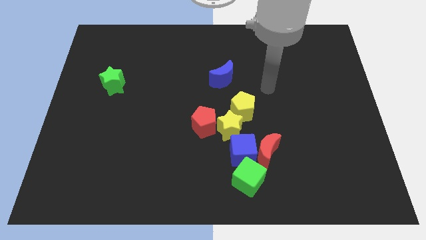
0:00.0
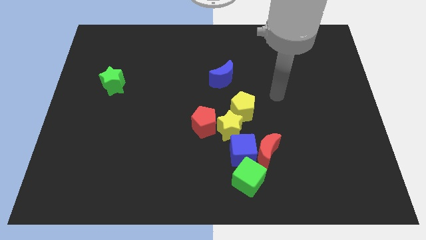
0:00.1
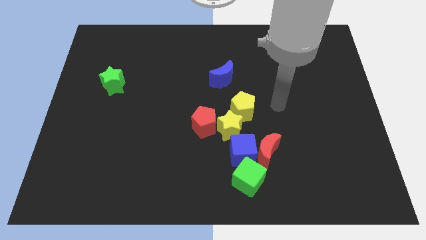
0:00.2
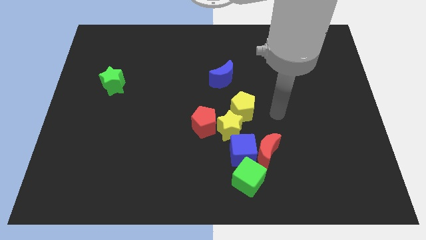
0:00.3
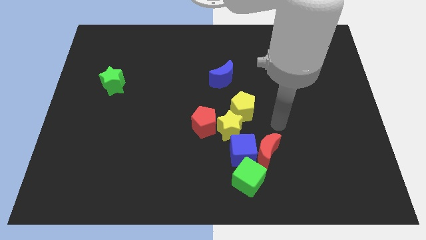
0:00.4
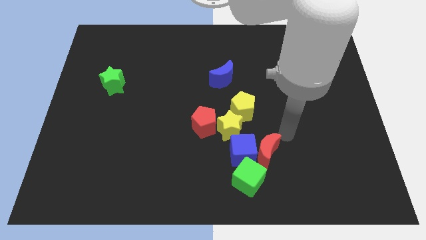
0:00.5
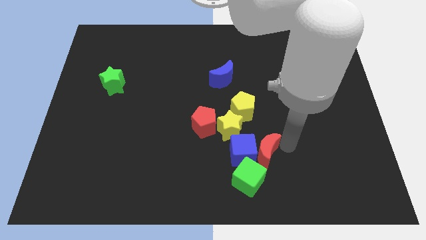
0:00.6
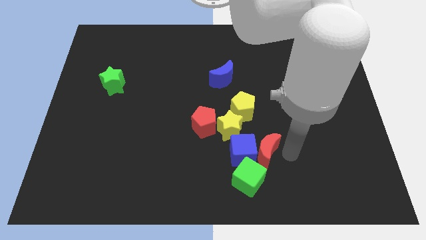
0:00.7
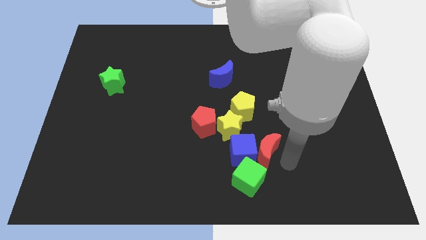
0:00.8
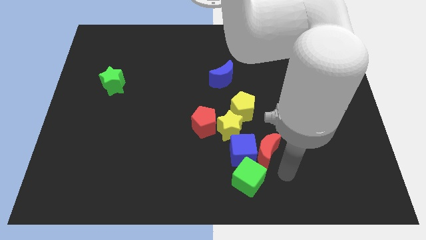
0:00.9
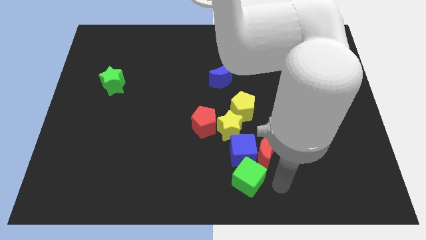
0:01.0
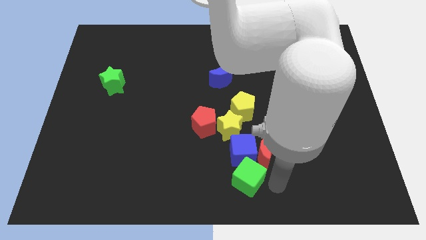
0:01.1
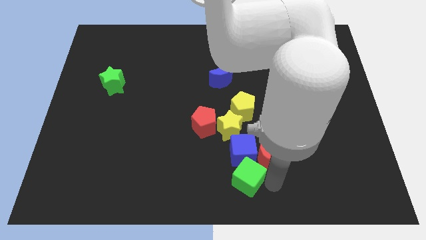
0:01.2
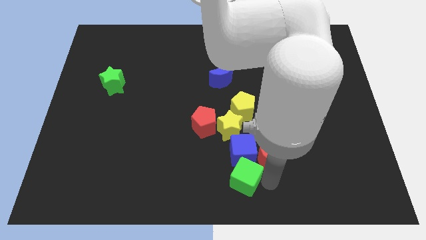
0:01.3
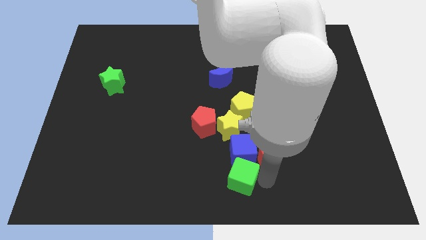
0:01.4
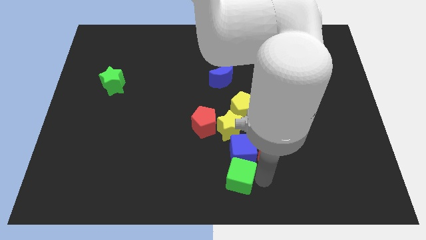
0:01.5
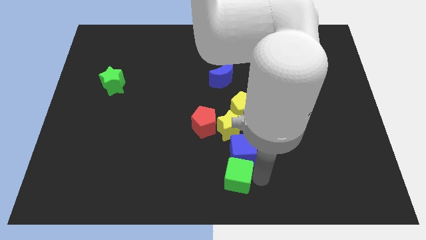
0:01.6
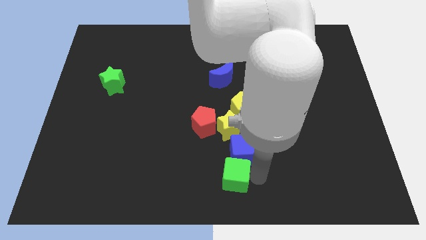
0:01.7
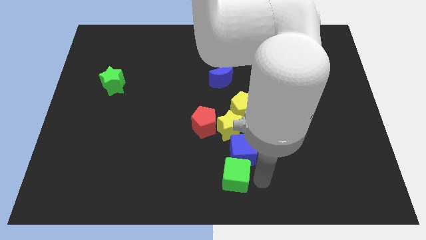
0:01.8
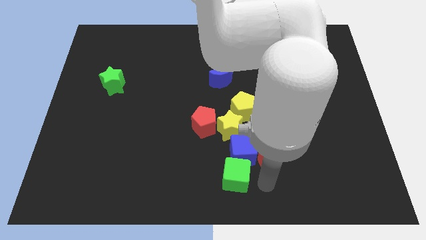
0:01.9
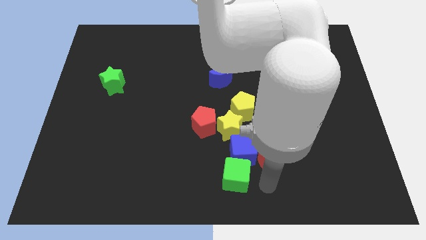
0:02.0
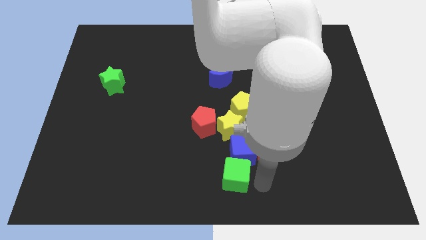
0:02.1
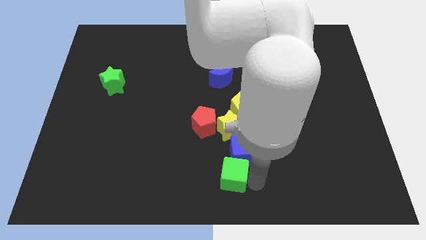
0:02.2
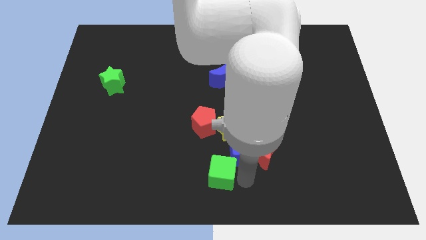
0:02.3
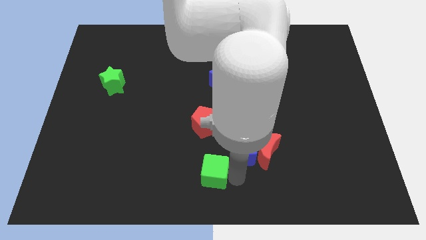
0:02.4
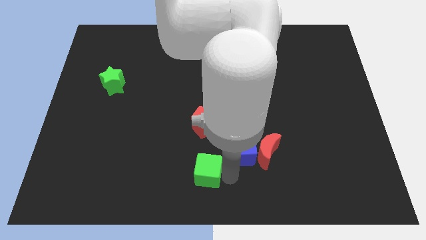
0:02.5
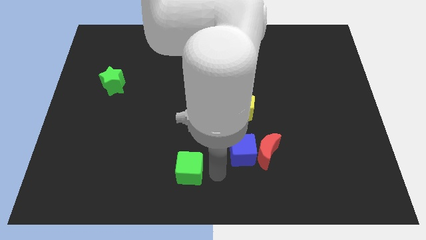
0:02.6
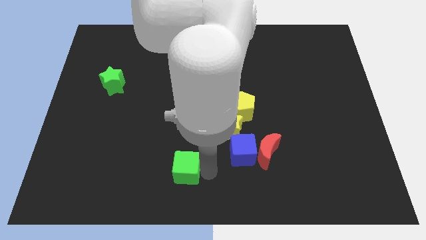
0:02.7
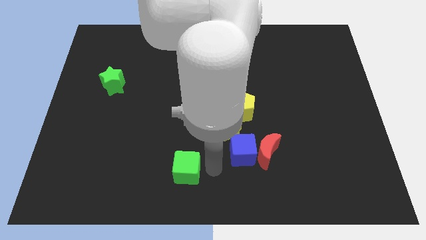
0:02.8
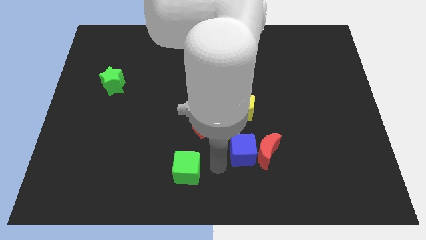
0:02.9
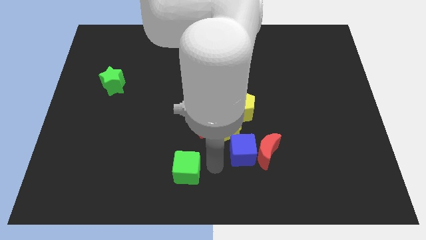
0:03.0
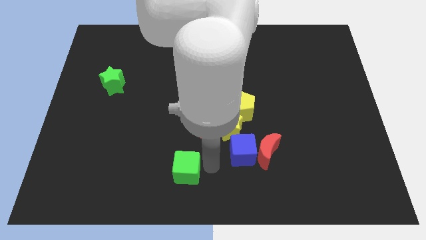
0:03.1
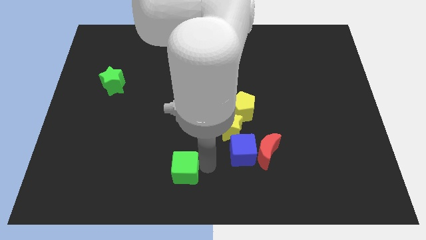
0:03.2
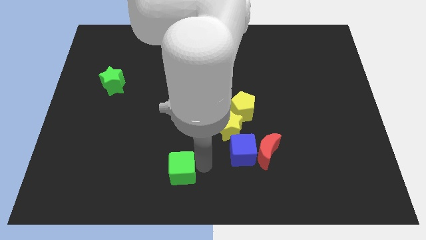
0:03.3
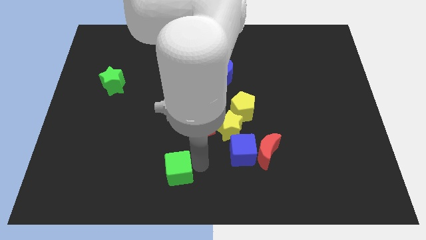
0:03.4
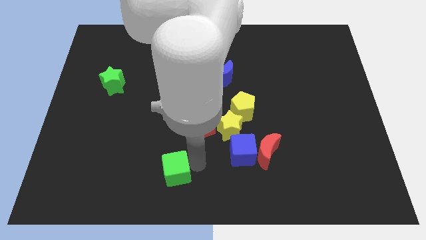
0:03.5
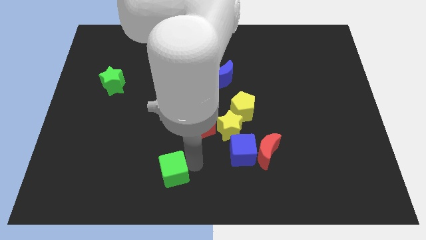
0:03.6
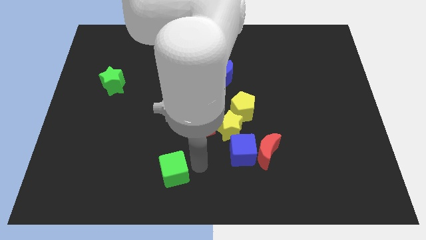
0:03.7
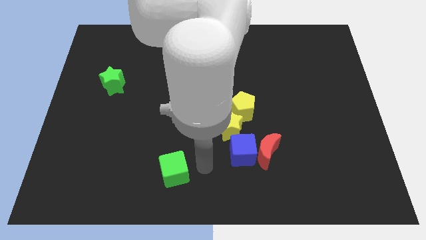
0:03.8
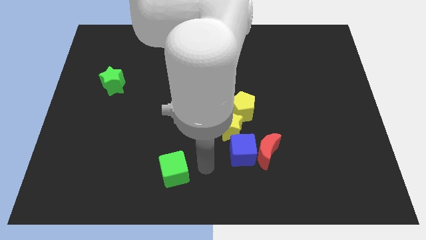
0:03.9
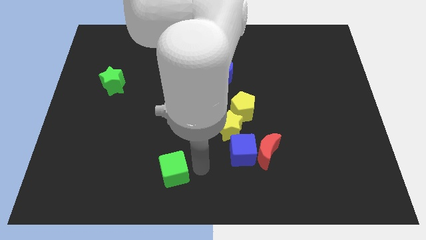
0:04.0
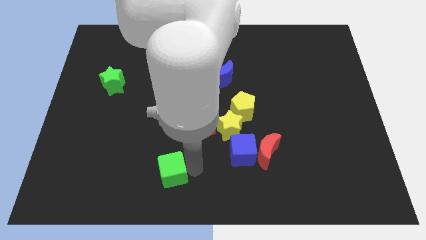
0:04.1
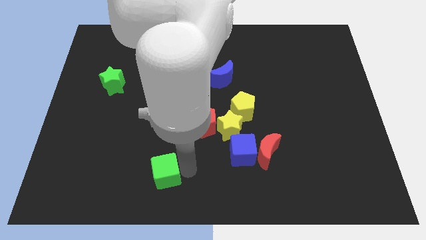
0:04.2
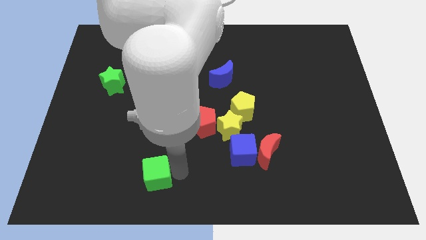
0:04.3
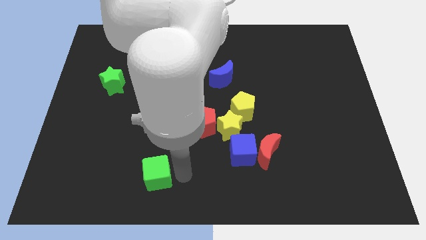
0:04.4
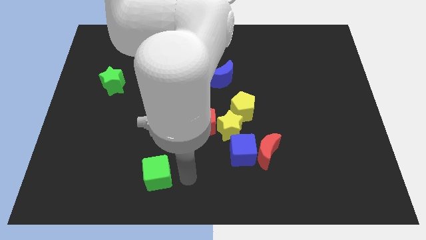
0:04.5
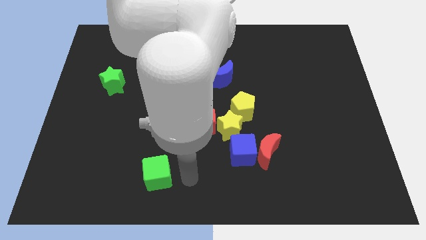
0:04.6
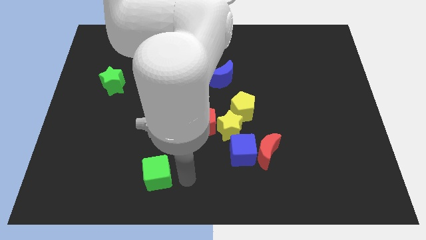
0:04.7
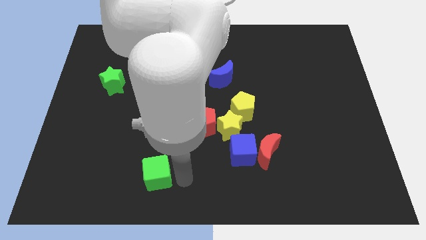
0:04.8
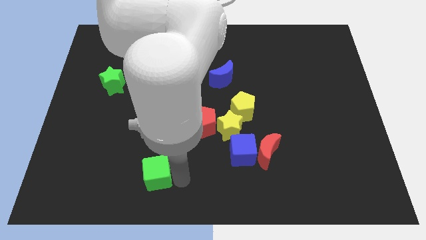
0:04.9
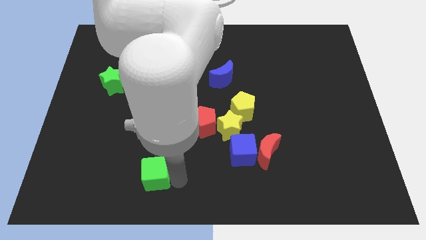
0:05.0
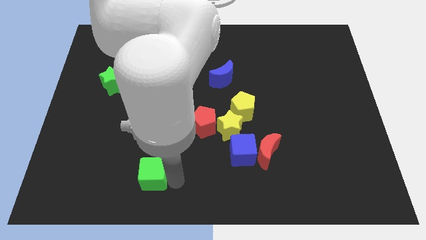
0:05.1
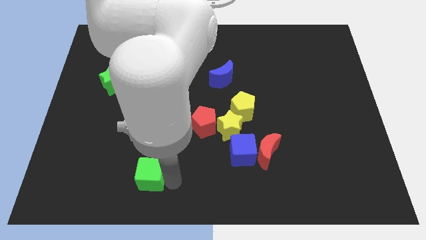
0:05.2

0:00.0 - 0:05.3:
move the green cube left

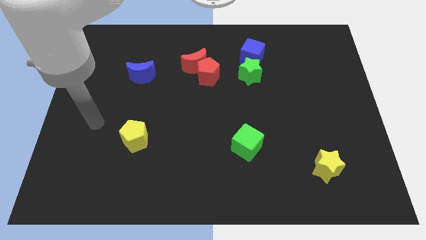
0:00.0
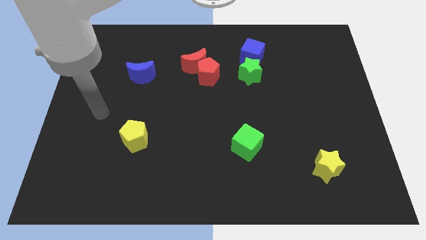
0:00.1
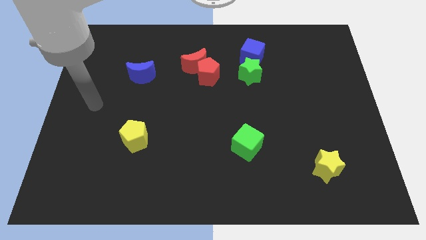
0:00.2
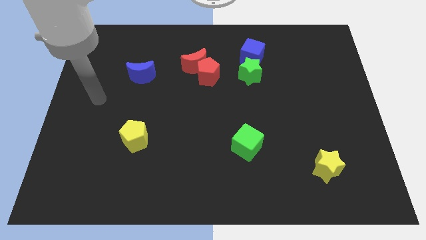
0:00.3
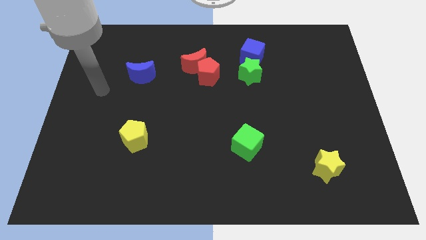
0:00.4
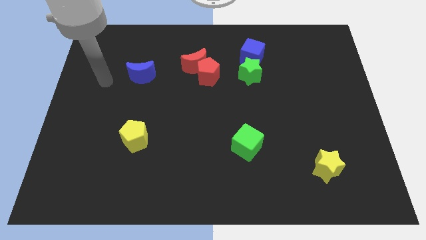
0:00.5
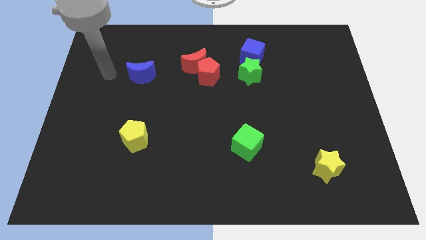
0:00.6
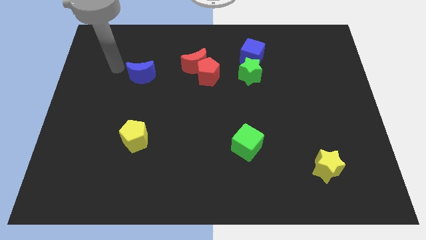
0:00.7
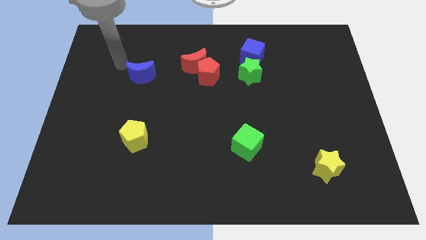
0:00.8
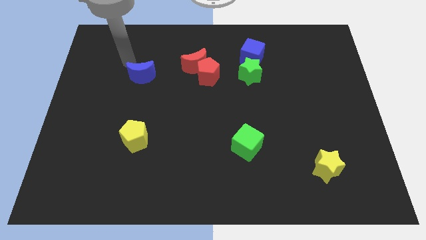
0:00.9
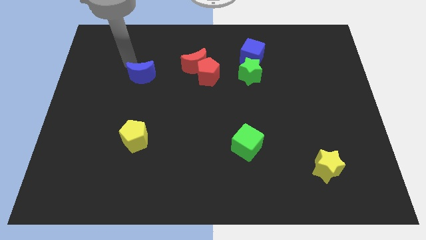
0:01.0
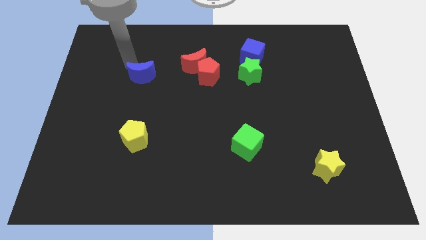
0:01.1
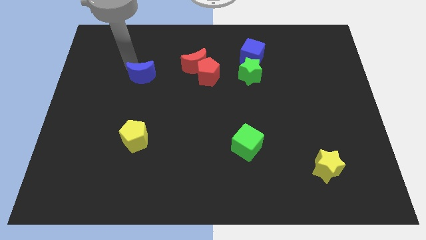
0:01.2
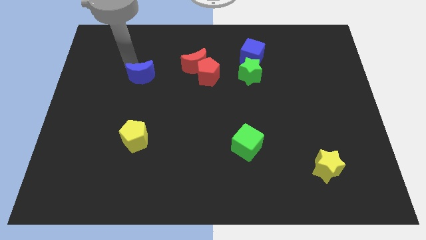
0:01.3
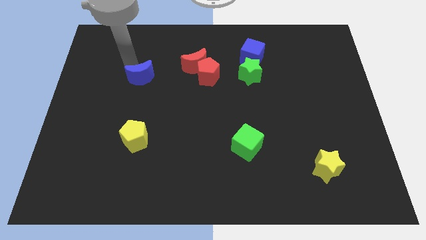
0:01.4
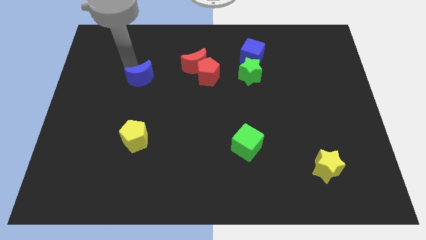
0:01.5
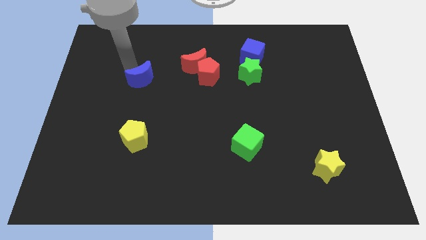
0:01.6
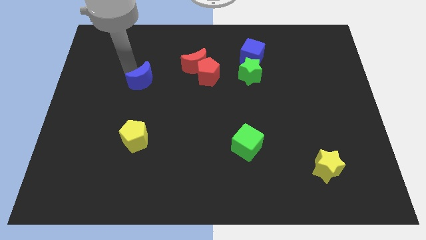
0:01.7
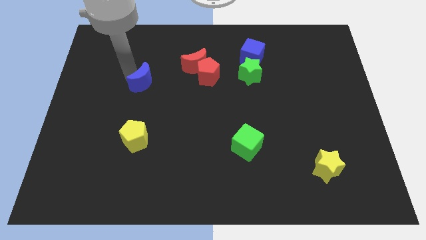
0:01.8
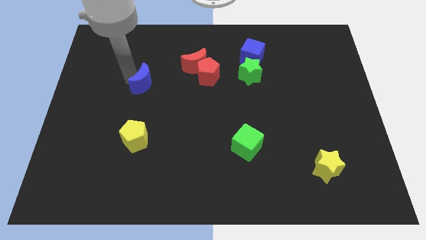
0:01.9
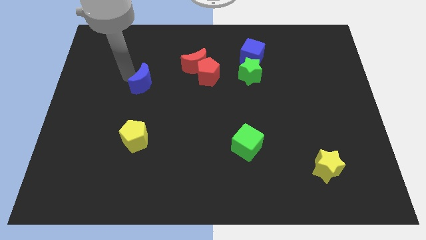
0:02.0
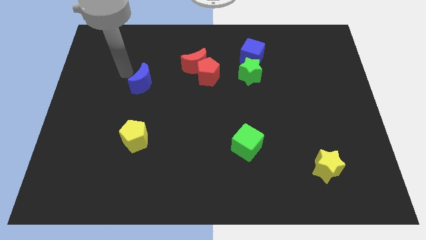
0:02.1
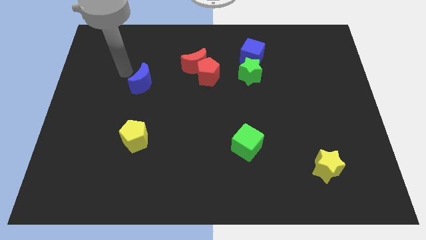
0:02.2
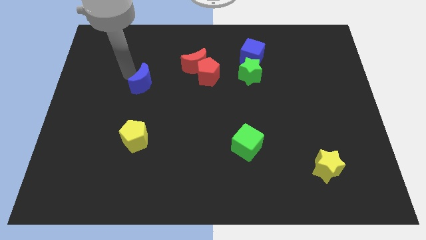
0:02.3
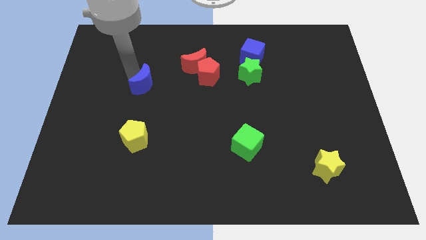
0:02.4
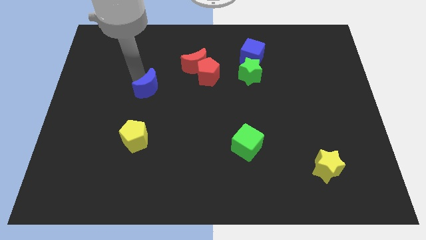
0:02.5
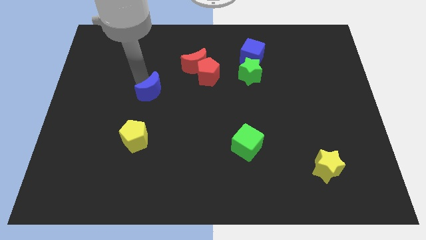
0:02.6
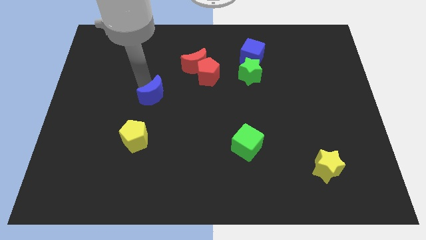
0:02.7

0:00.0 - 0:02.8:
slide the blue moon downwards and right diagonally slightly
